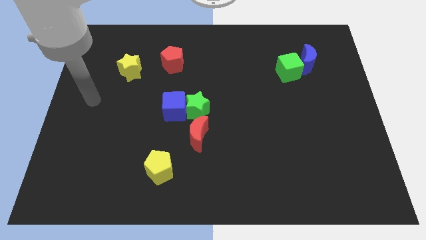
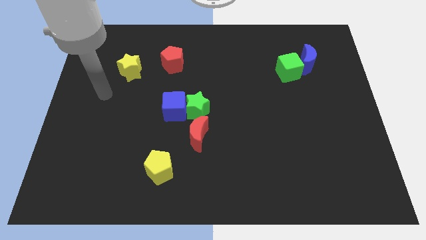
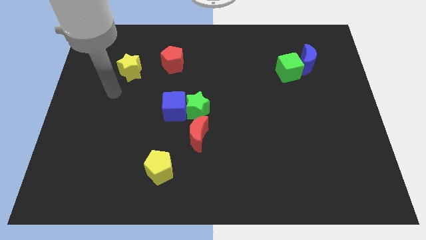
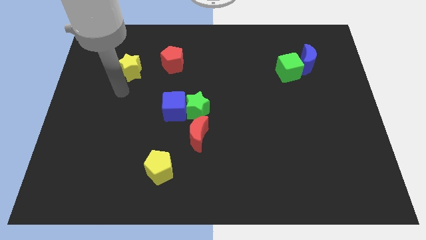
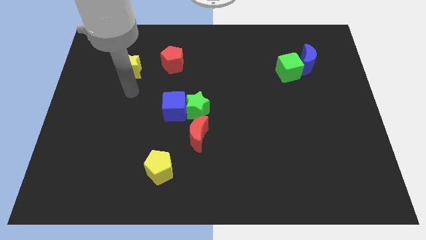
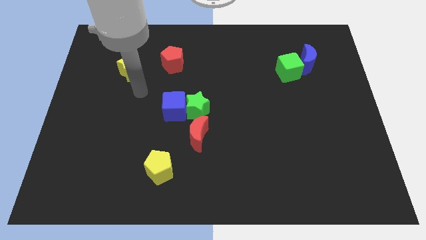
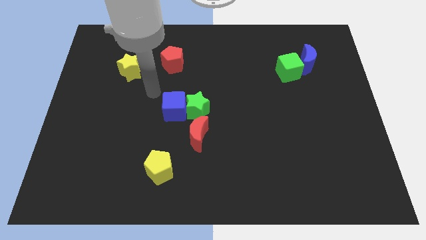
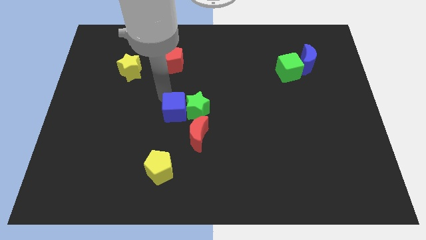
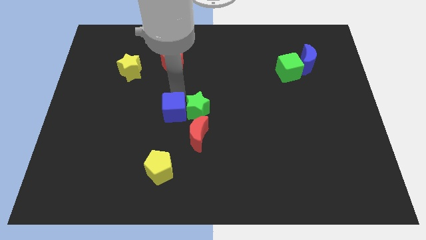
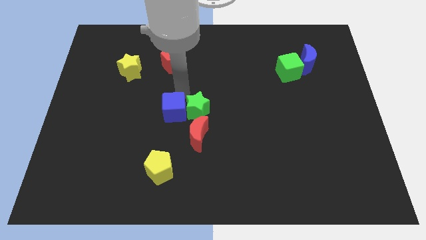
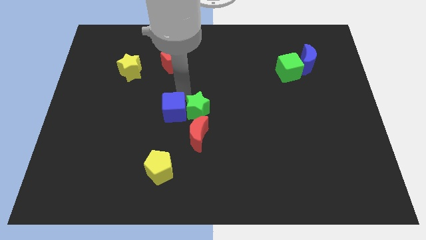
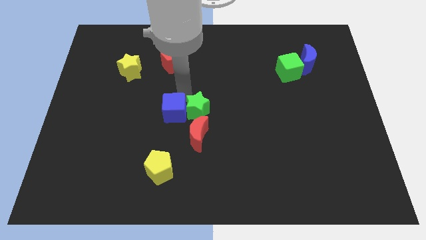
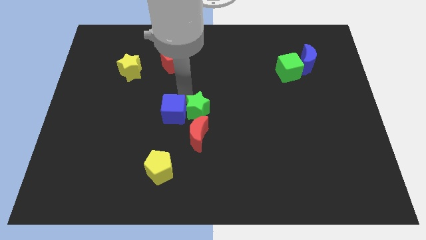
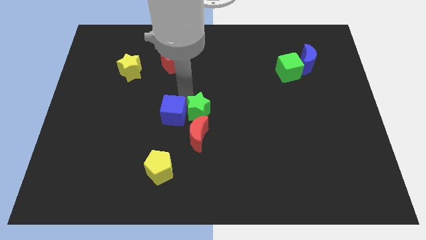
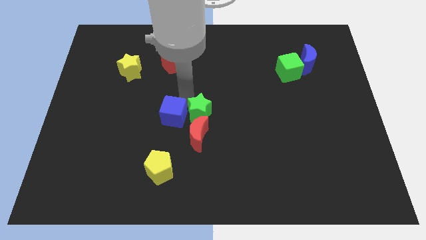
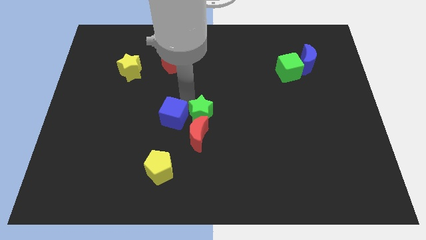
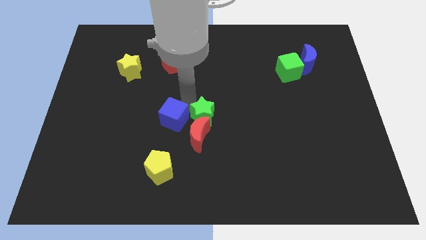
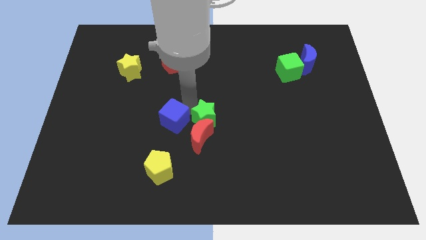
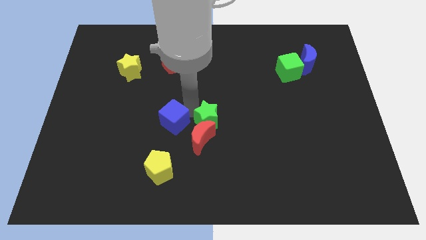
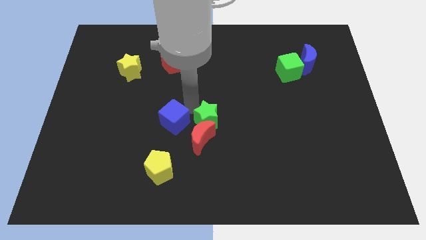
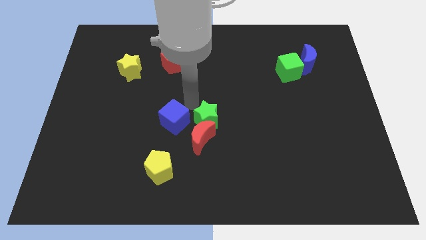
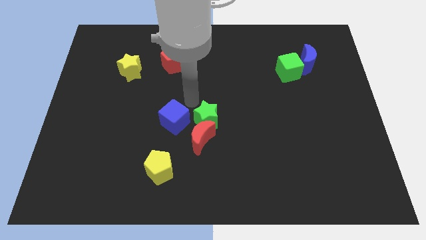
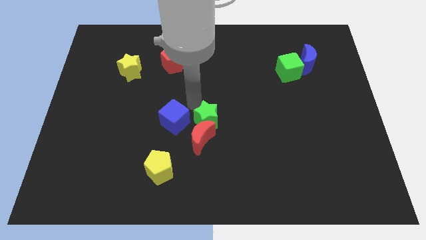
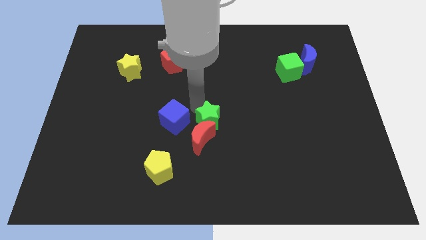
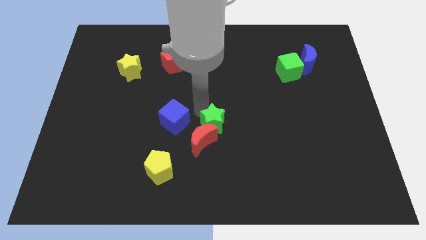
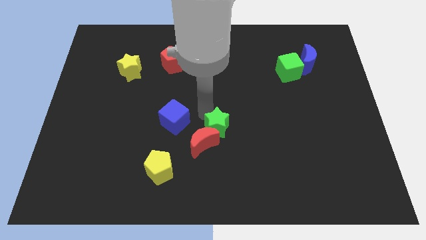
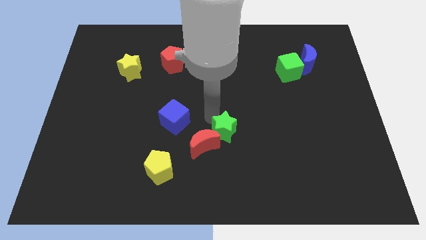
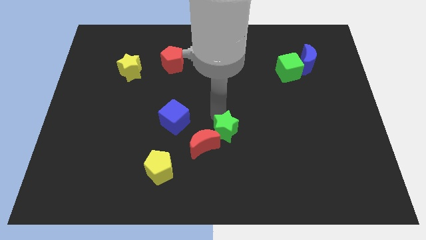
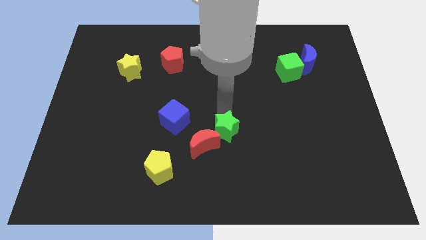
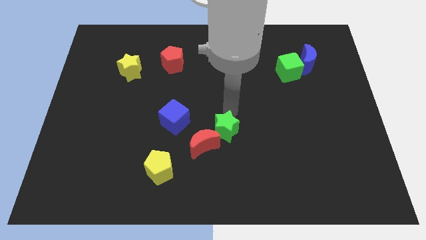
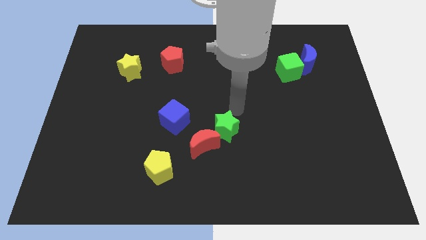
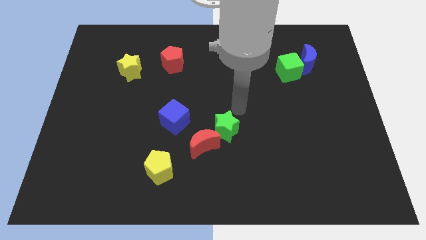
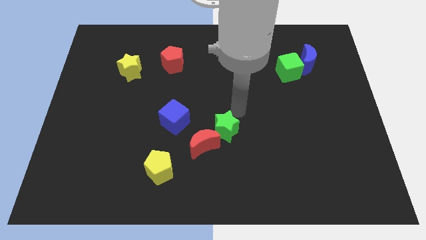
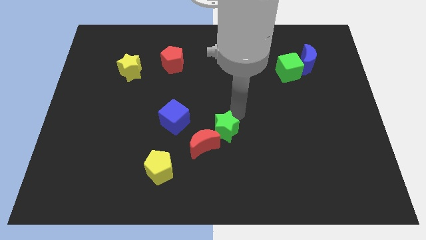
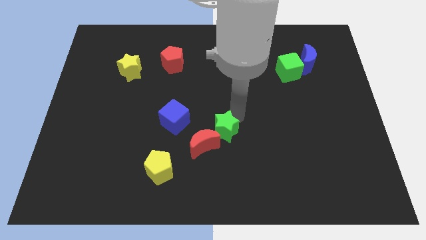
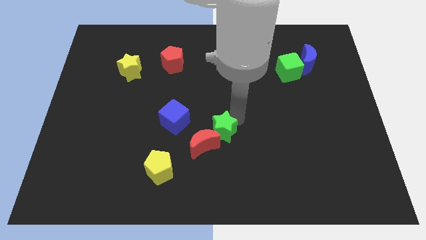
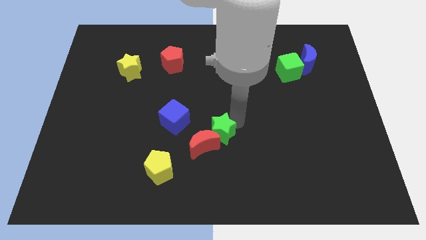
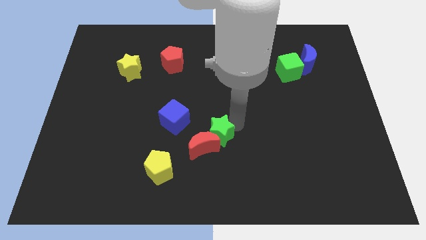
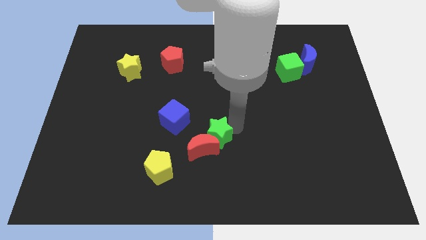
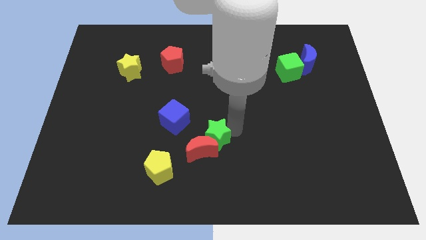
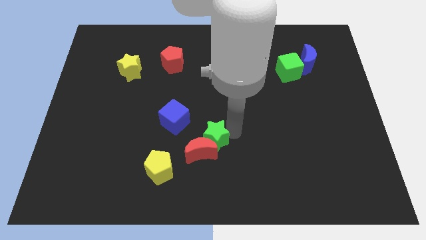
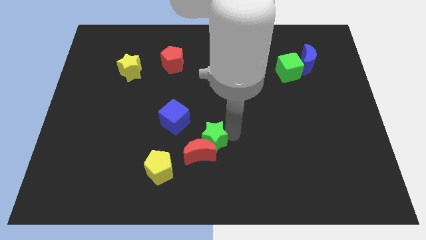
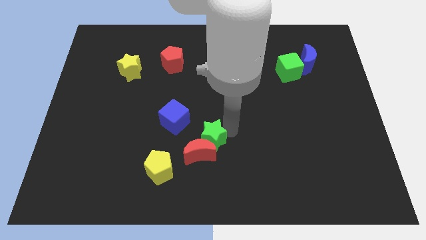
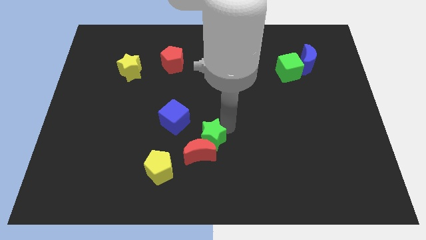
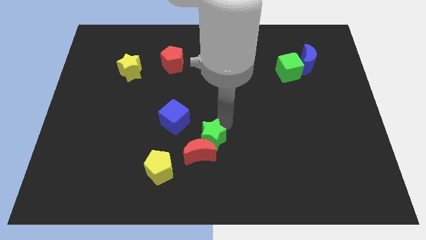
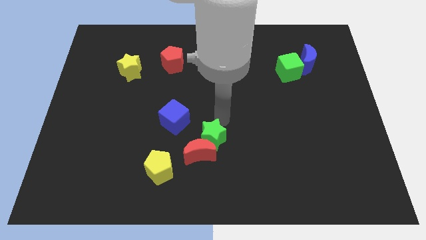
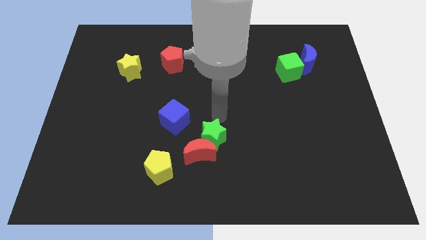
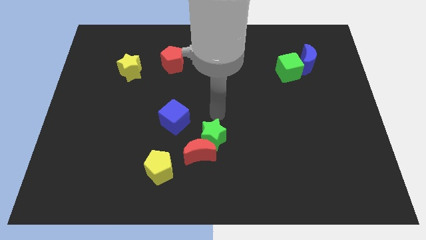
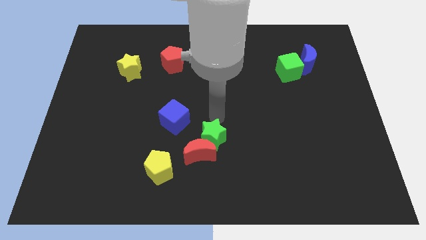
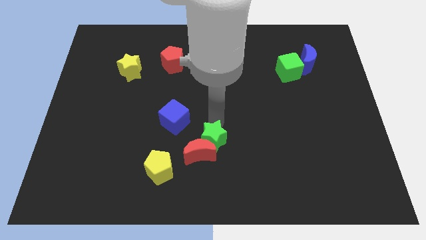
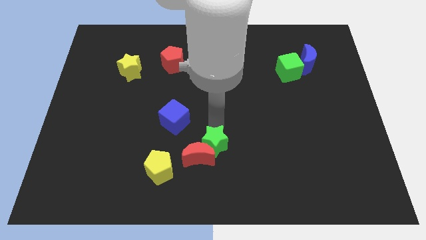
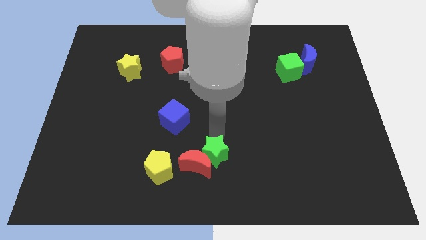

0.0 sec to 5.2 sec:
move the green star to the bottom side

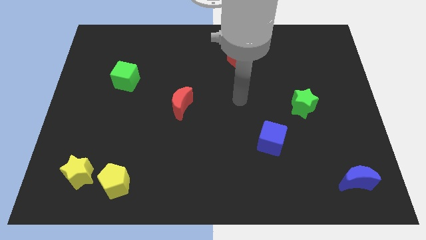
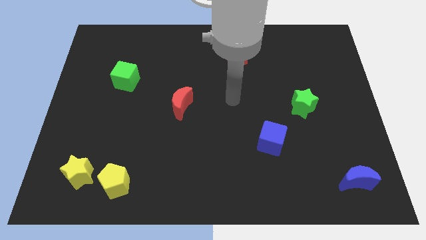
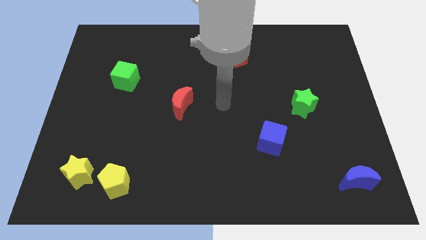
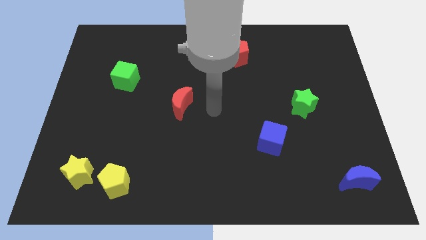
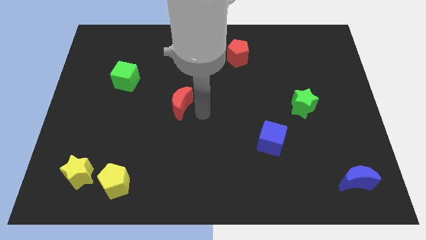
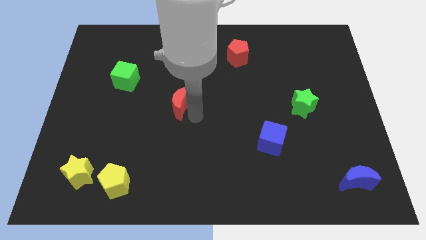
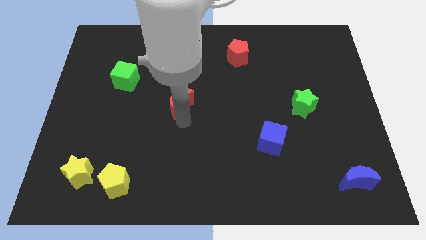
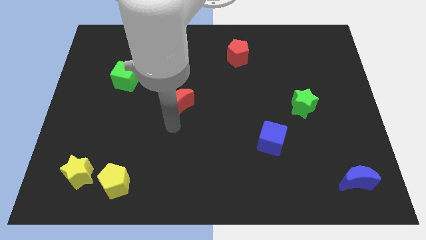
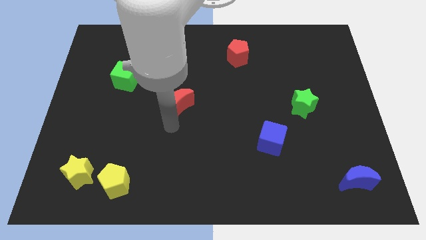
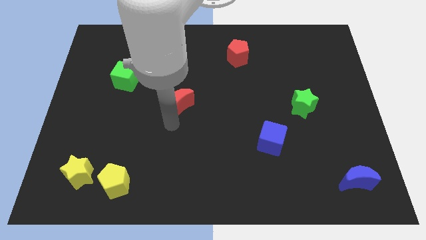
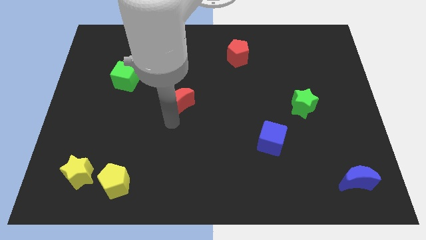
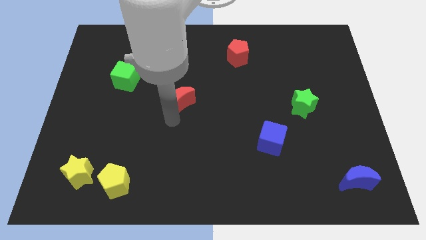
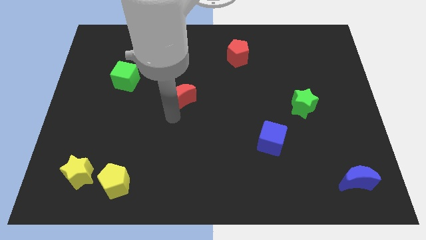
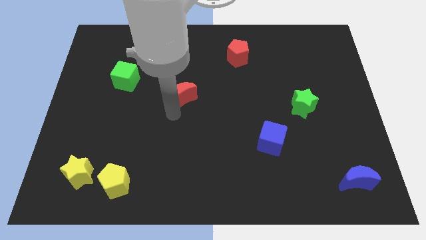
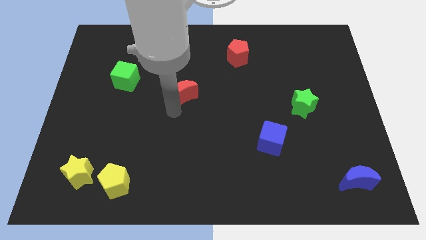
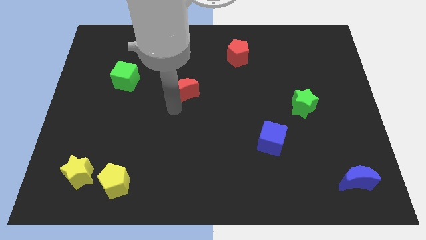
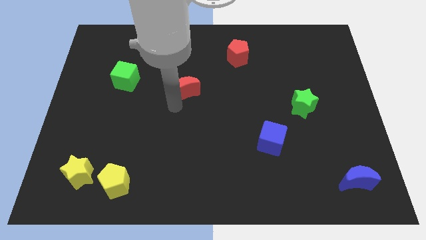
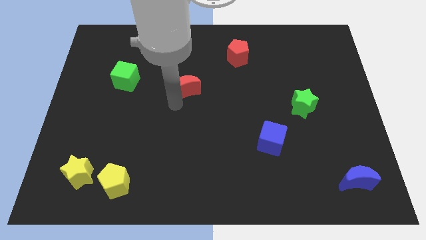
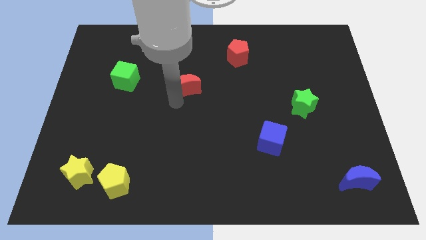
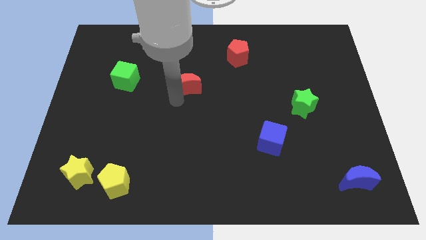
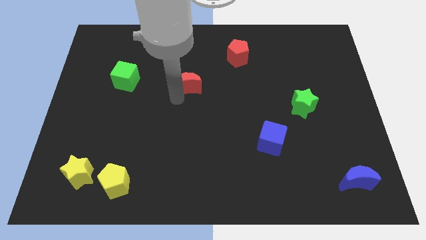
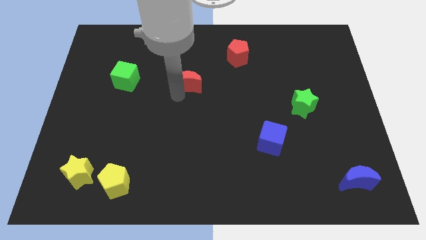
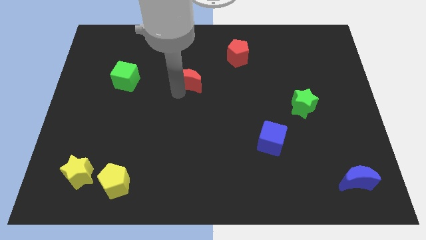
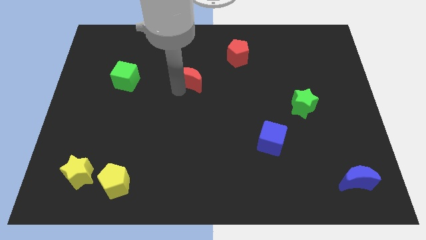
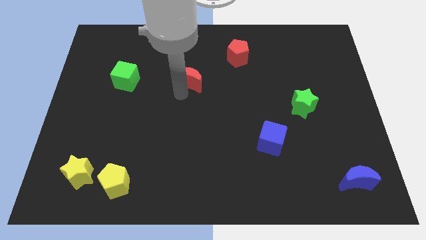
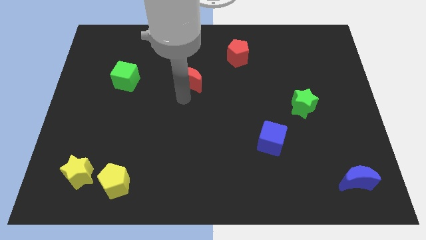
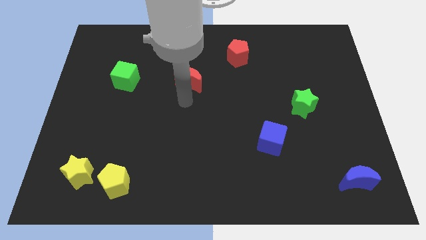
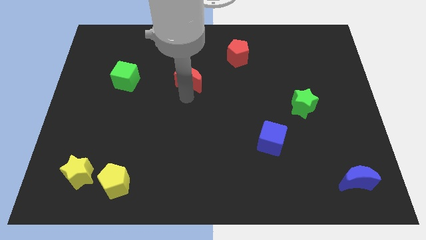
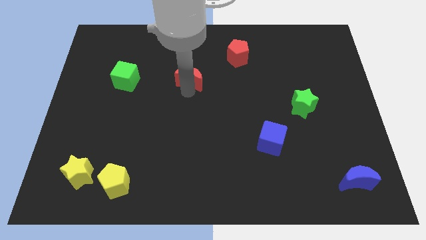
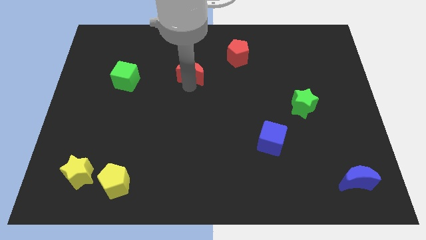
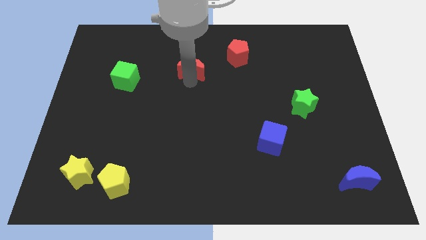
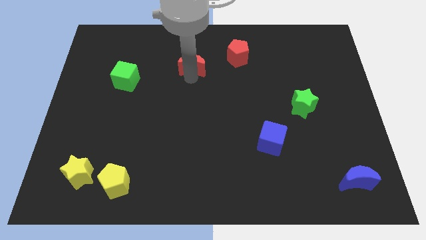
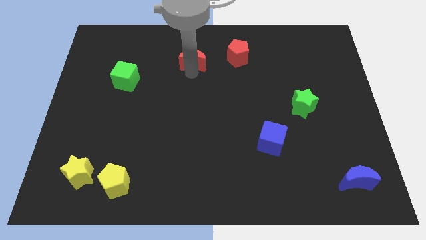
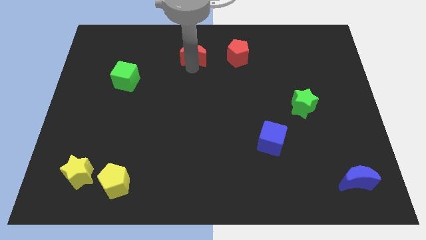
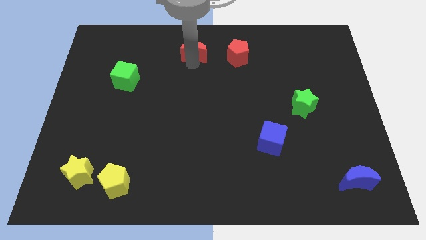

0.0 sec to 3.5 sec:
slide the red moon to the top side
